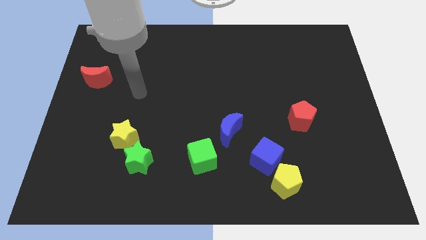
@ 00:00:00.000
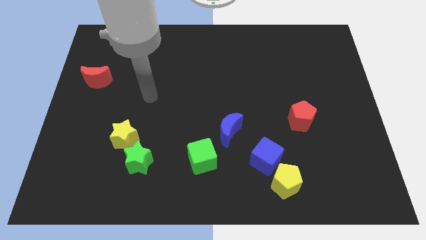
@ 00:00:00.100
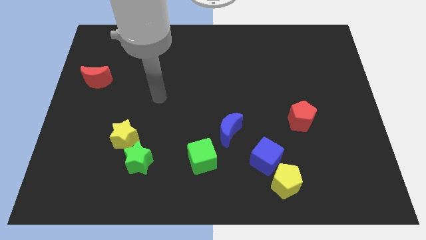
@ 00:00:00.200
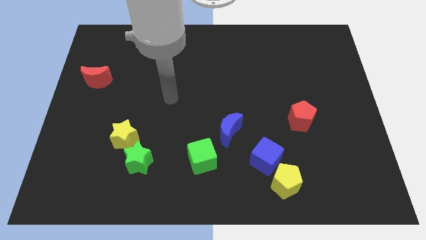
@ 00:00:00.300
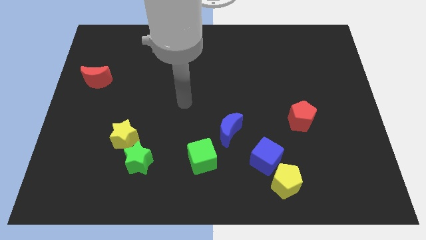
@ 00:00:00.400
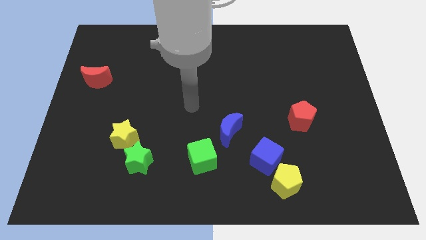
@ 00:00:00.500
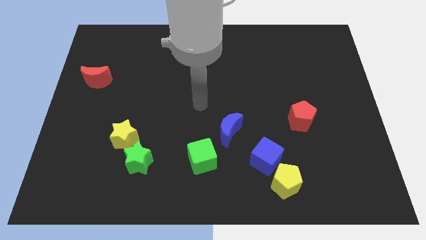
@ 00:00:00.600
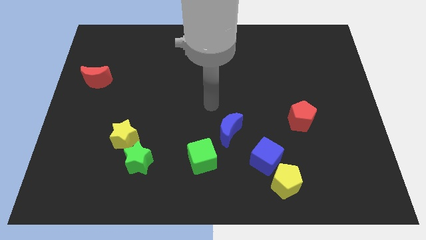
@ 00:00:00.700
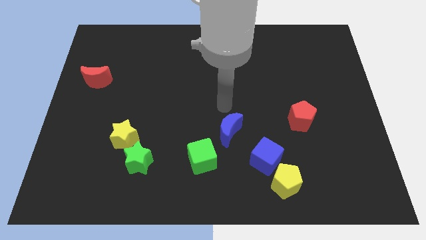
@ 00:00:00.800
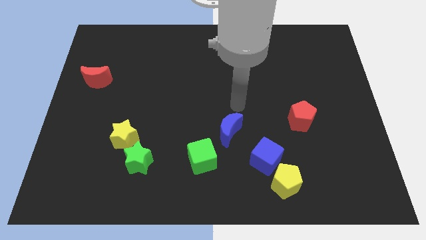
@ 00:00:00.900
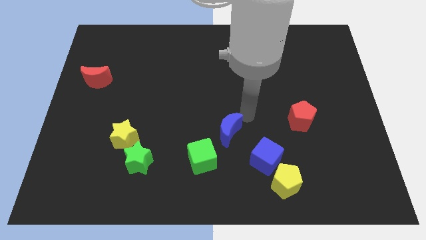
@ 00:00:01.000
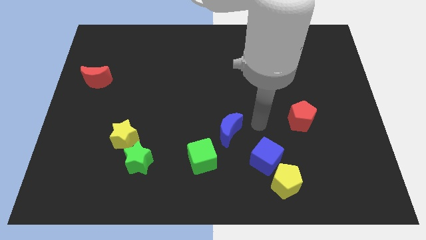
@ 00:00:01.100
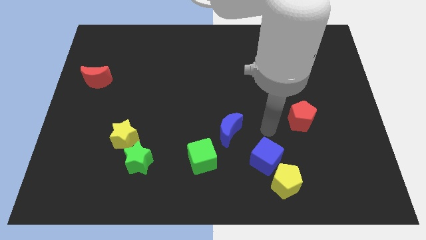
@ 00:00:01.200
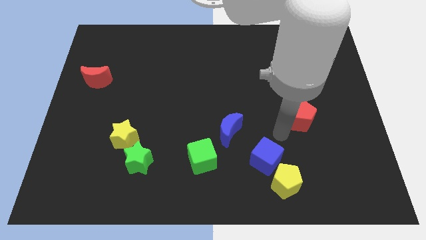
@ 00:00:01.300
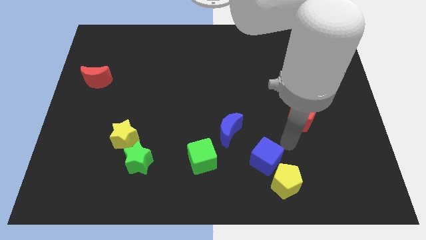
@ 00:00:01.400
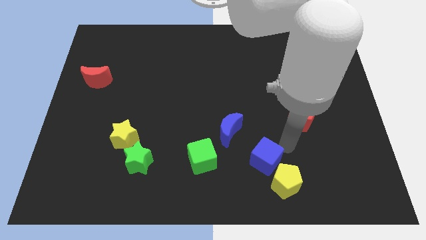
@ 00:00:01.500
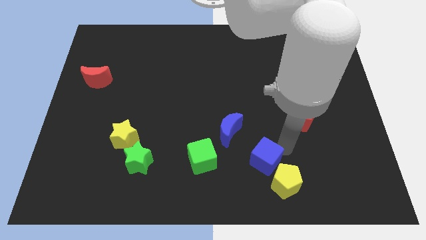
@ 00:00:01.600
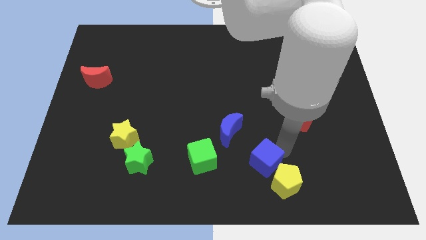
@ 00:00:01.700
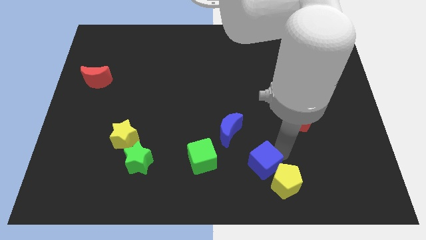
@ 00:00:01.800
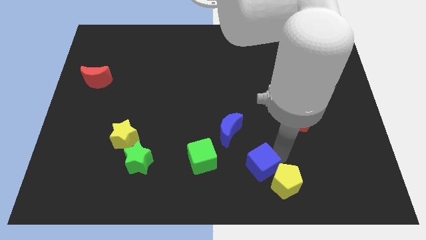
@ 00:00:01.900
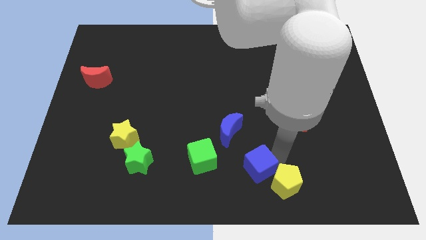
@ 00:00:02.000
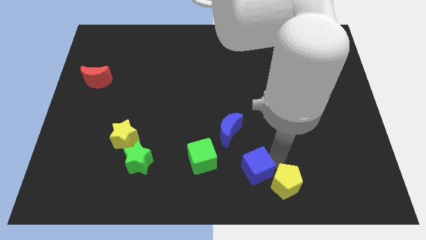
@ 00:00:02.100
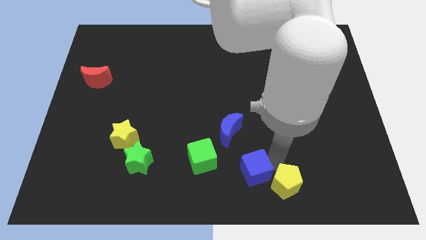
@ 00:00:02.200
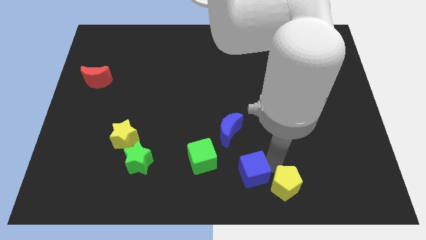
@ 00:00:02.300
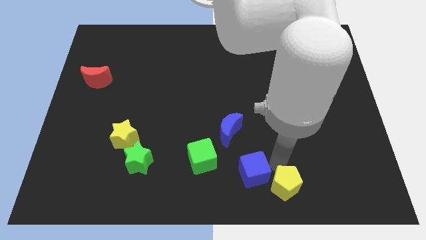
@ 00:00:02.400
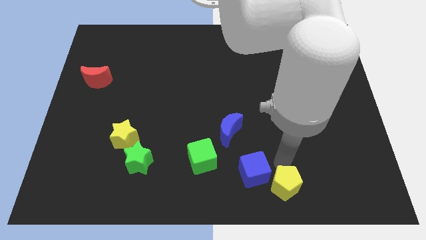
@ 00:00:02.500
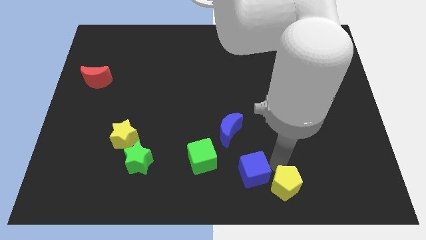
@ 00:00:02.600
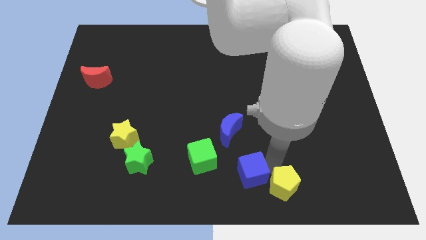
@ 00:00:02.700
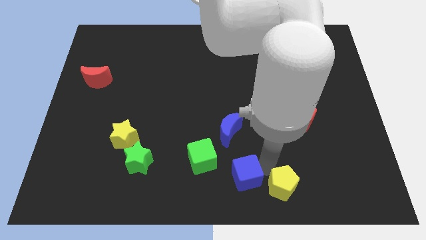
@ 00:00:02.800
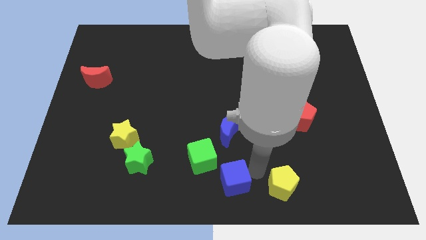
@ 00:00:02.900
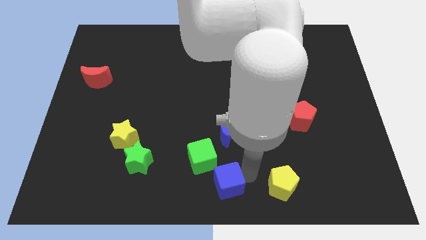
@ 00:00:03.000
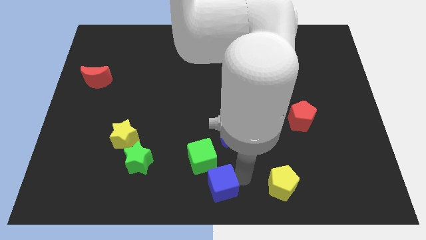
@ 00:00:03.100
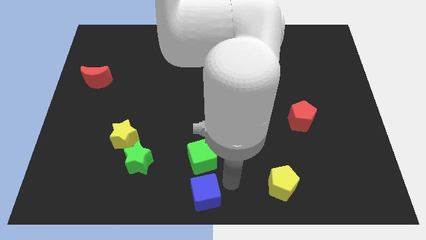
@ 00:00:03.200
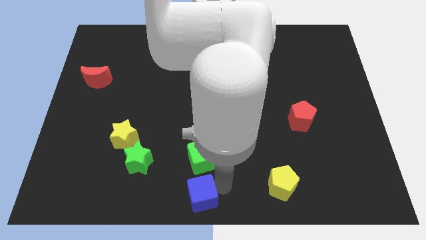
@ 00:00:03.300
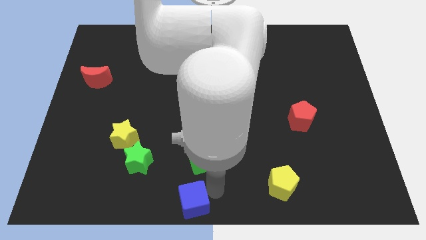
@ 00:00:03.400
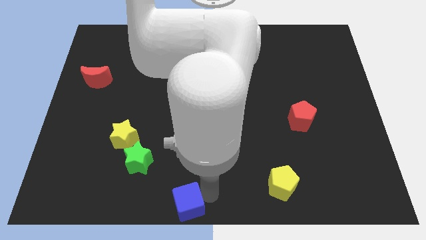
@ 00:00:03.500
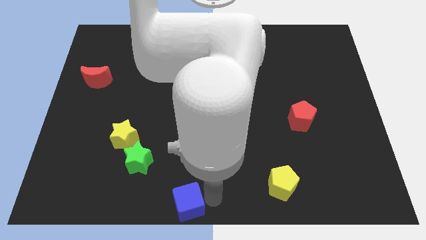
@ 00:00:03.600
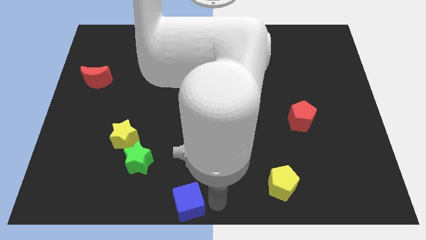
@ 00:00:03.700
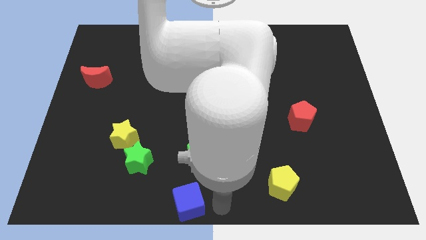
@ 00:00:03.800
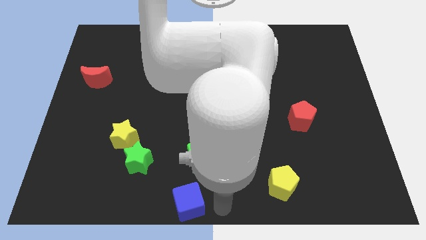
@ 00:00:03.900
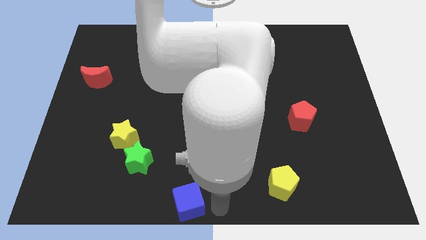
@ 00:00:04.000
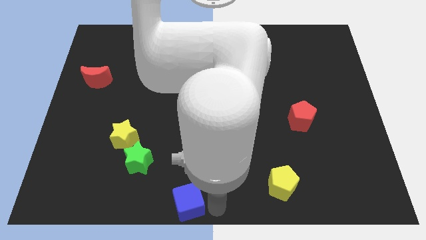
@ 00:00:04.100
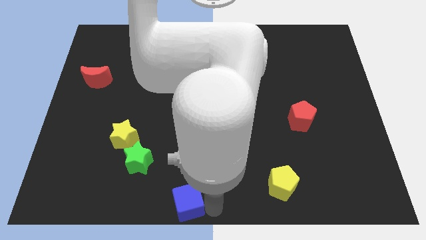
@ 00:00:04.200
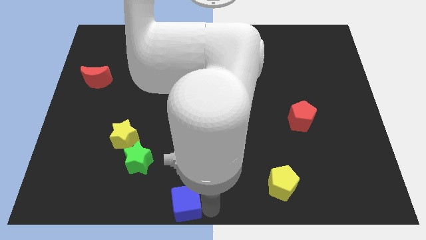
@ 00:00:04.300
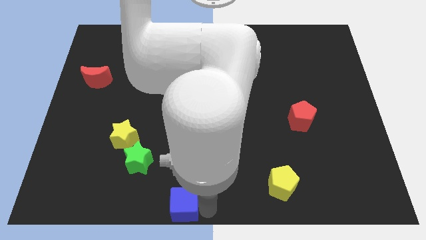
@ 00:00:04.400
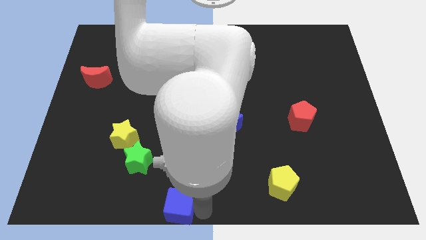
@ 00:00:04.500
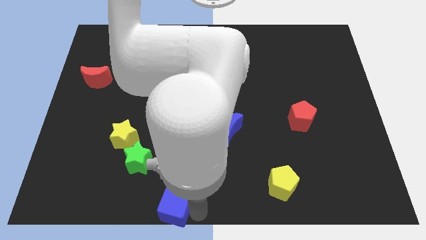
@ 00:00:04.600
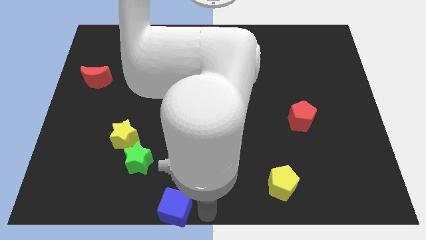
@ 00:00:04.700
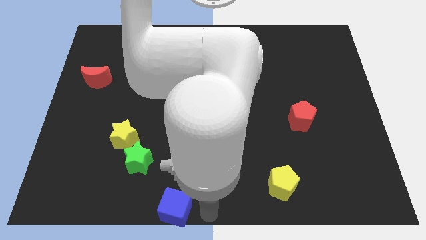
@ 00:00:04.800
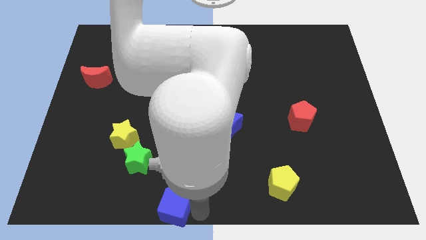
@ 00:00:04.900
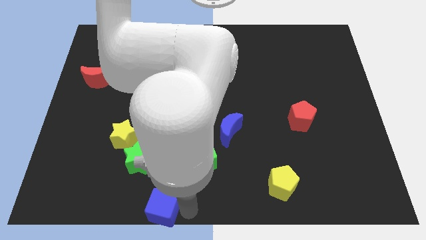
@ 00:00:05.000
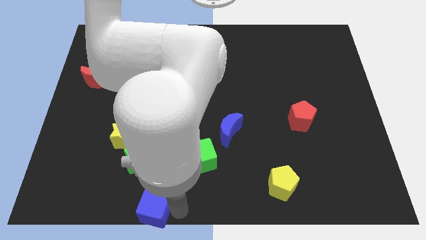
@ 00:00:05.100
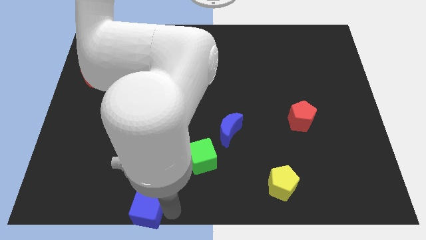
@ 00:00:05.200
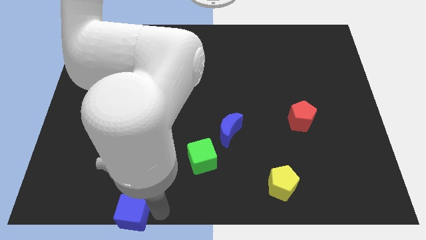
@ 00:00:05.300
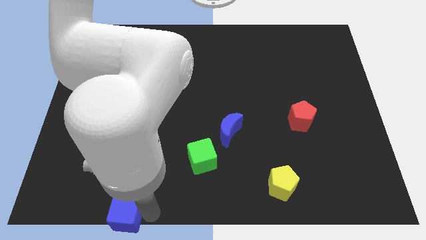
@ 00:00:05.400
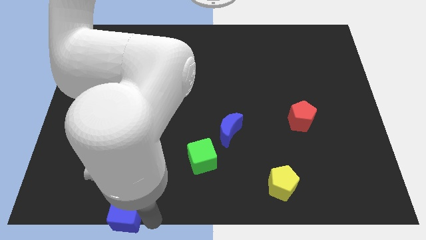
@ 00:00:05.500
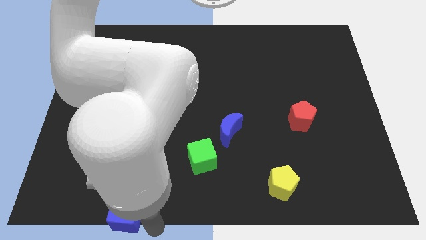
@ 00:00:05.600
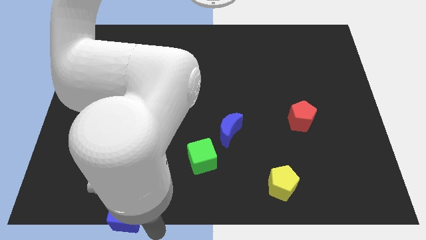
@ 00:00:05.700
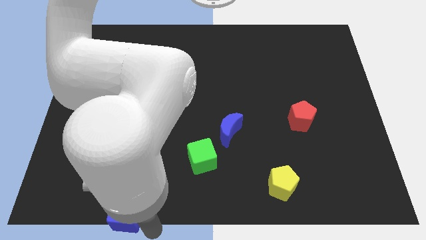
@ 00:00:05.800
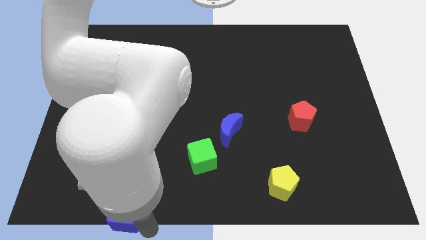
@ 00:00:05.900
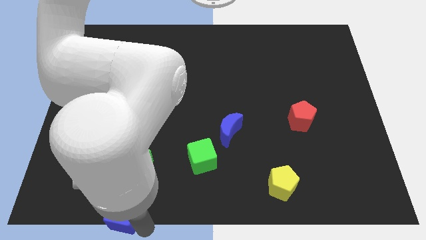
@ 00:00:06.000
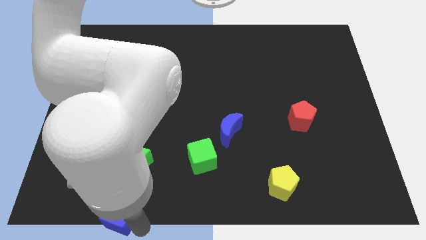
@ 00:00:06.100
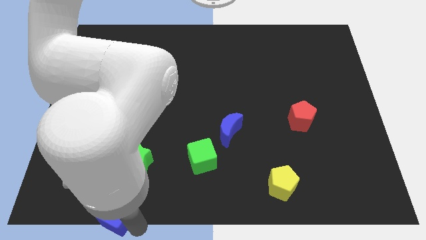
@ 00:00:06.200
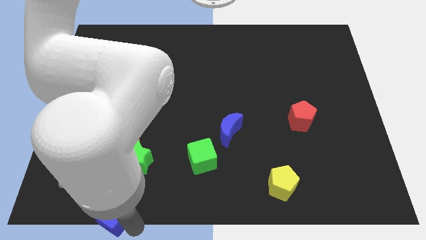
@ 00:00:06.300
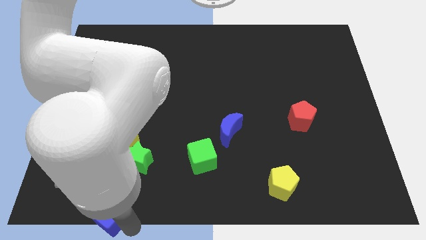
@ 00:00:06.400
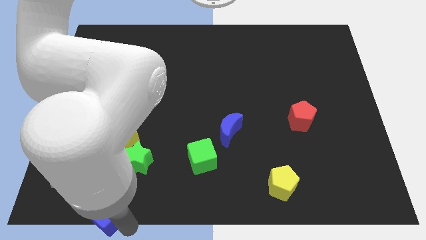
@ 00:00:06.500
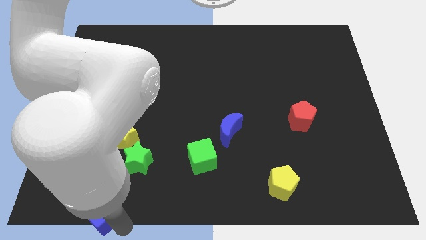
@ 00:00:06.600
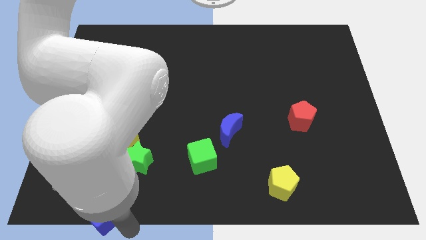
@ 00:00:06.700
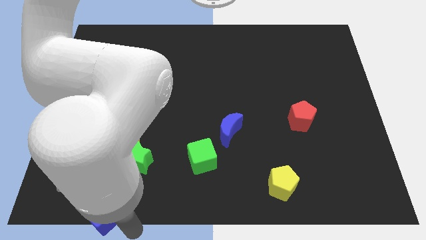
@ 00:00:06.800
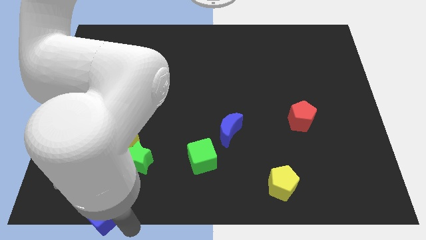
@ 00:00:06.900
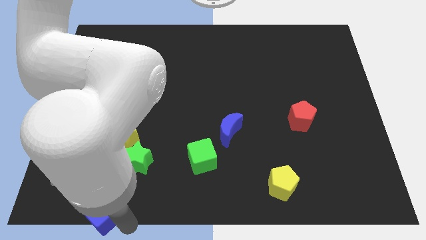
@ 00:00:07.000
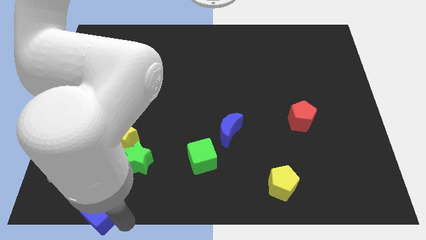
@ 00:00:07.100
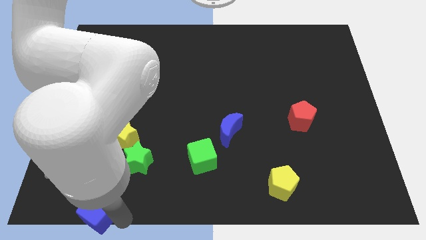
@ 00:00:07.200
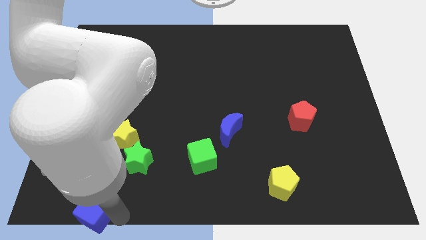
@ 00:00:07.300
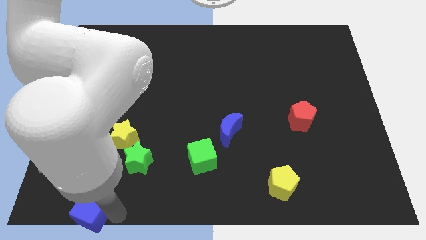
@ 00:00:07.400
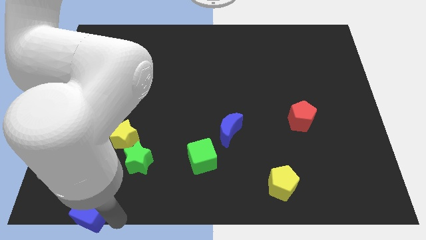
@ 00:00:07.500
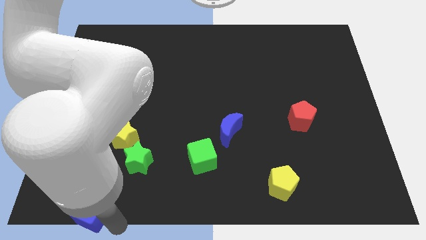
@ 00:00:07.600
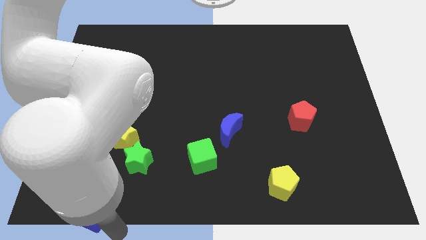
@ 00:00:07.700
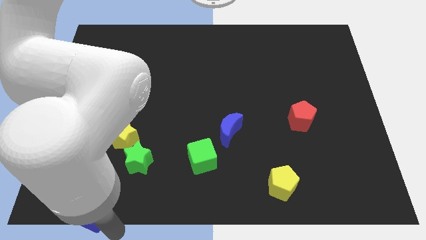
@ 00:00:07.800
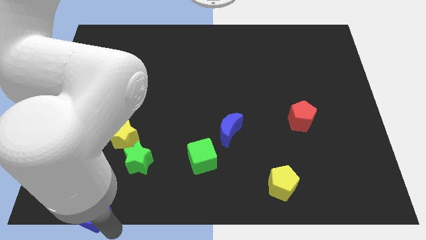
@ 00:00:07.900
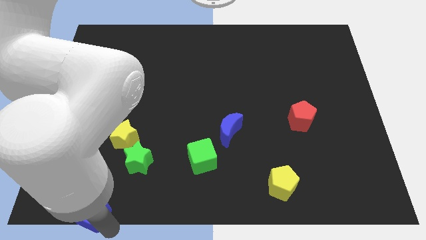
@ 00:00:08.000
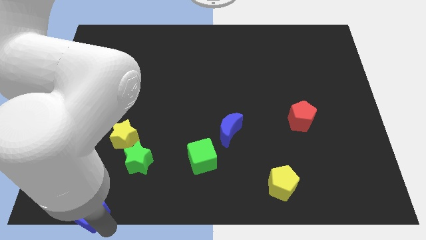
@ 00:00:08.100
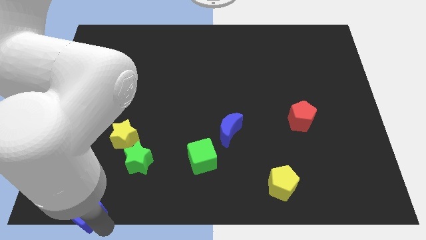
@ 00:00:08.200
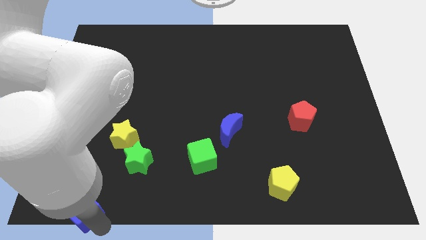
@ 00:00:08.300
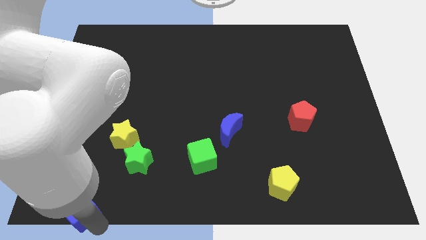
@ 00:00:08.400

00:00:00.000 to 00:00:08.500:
push the blue cube to the bottom left of the board
